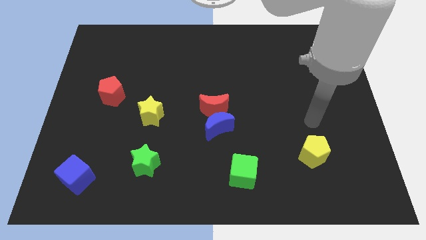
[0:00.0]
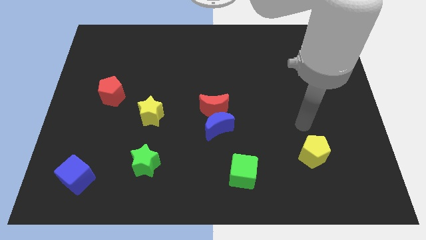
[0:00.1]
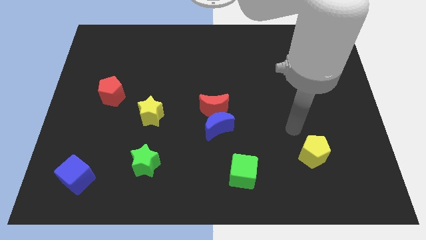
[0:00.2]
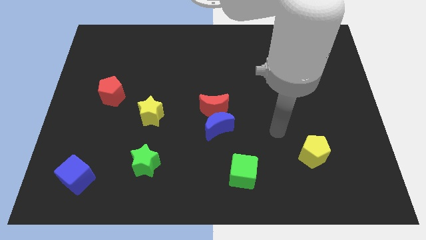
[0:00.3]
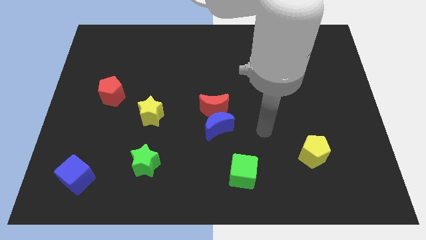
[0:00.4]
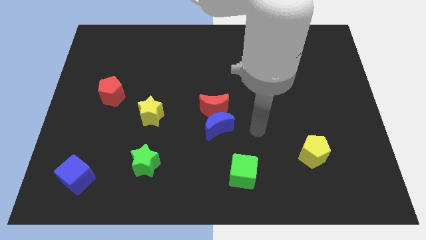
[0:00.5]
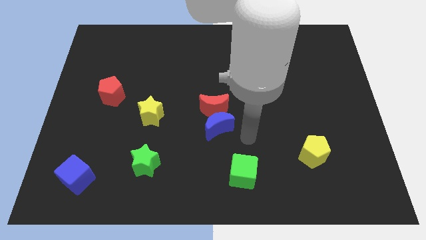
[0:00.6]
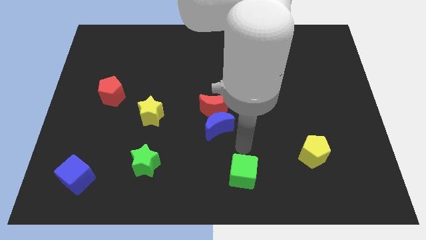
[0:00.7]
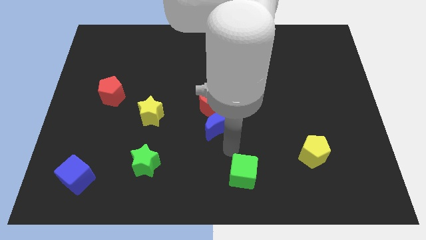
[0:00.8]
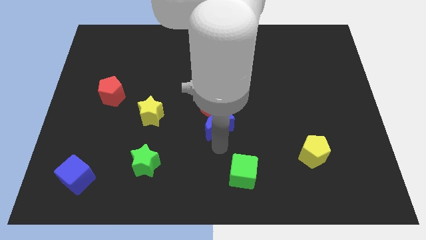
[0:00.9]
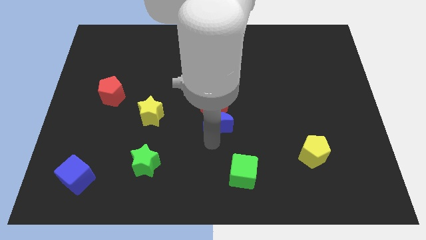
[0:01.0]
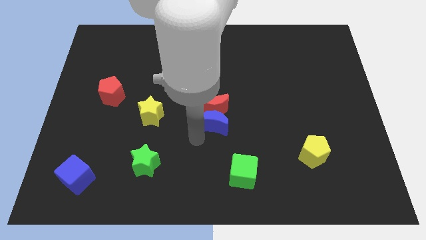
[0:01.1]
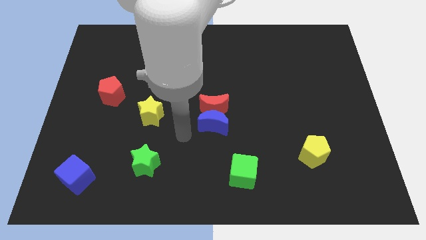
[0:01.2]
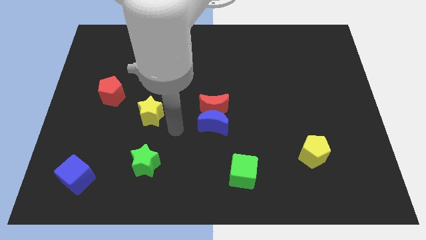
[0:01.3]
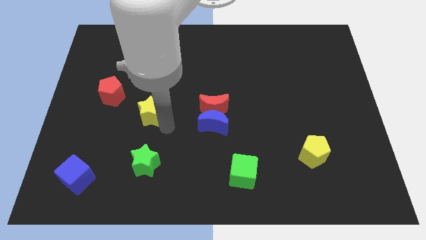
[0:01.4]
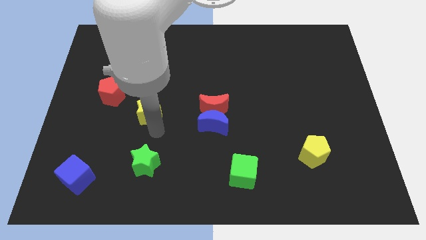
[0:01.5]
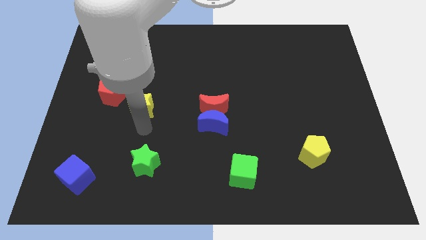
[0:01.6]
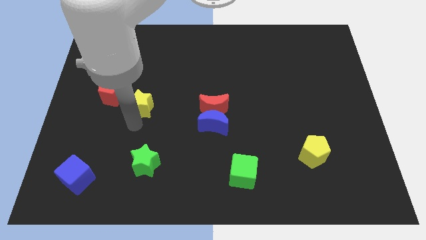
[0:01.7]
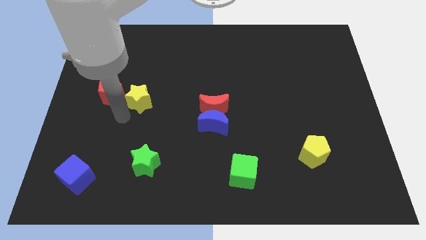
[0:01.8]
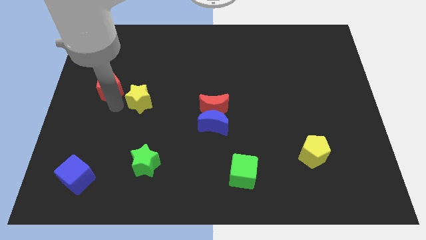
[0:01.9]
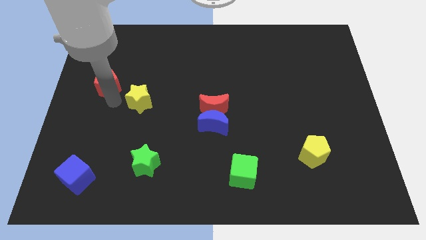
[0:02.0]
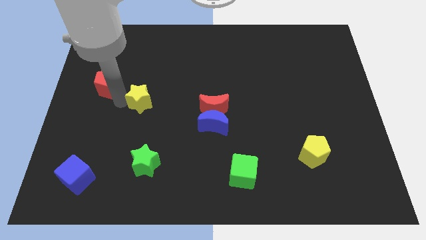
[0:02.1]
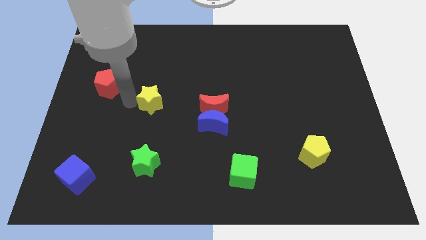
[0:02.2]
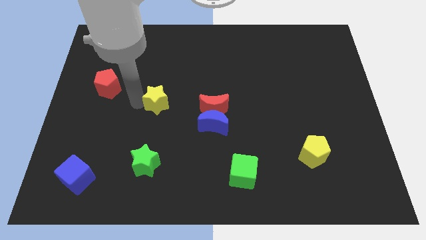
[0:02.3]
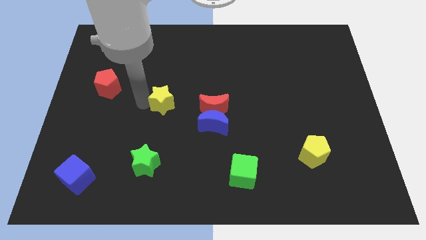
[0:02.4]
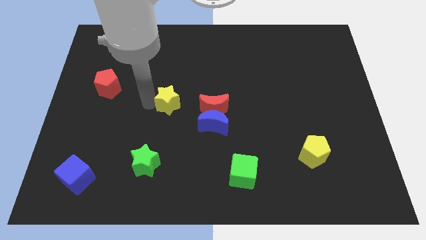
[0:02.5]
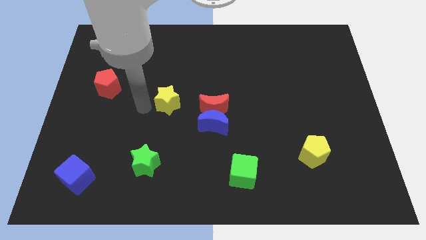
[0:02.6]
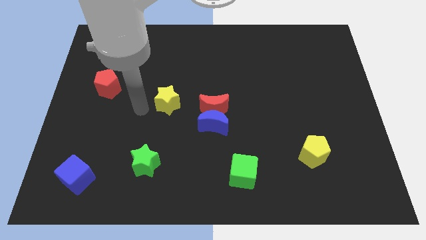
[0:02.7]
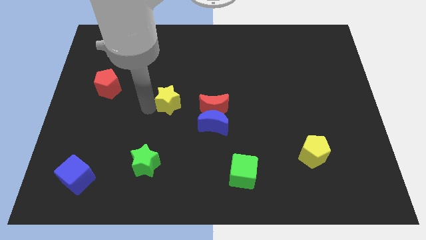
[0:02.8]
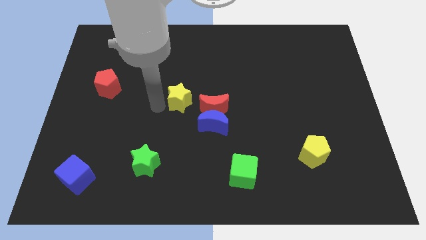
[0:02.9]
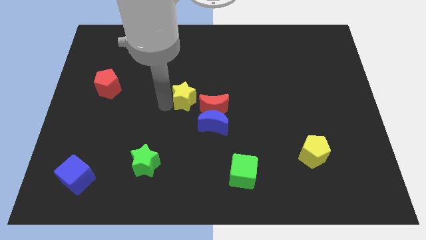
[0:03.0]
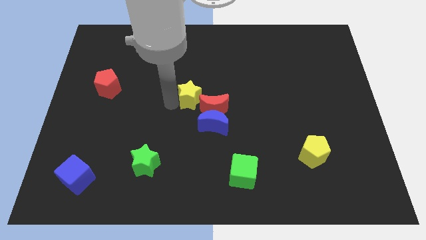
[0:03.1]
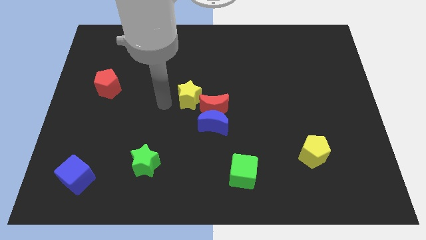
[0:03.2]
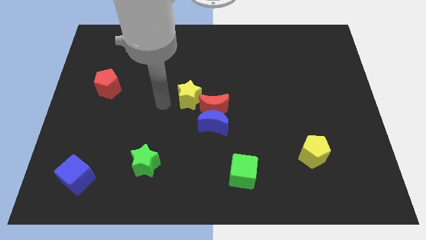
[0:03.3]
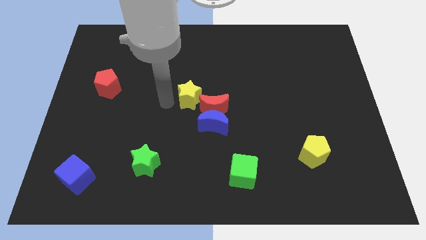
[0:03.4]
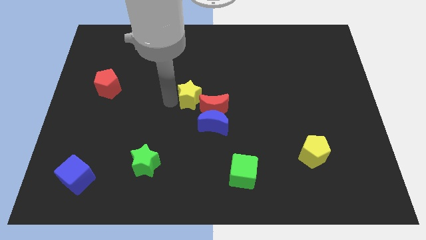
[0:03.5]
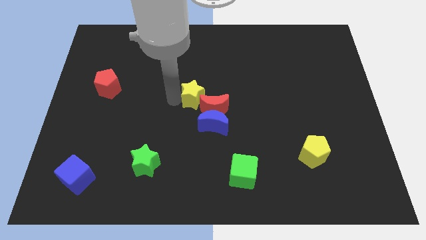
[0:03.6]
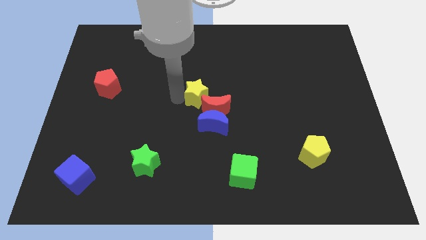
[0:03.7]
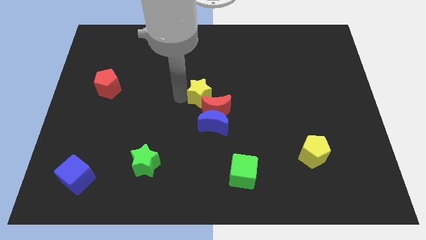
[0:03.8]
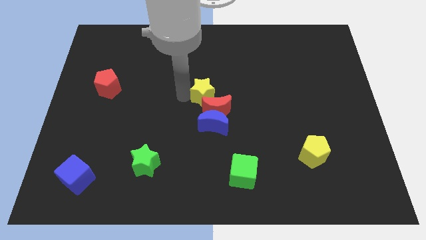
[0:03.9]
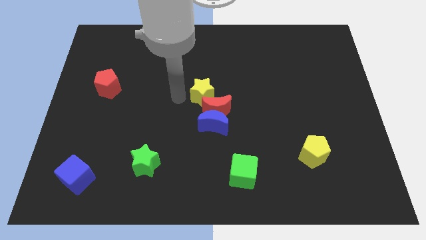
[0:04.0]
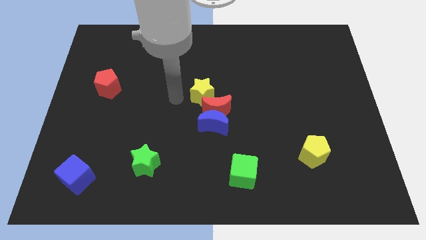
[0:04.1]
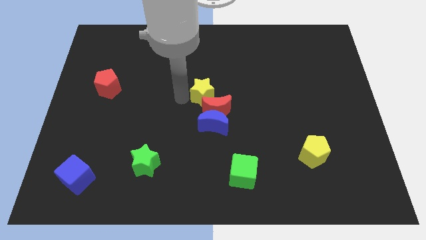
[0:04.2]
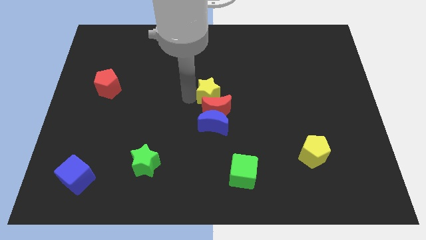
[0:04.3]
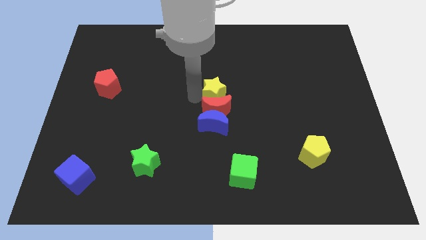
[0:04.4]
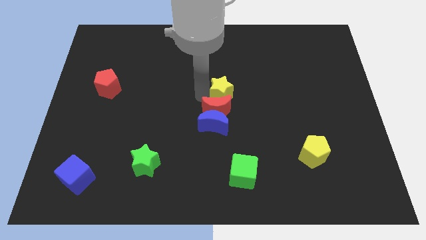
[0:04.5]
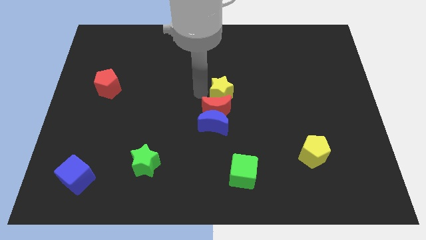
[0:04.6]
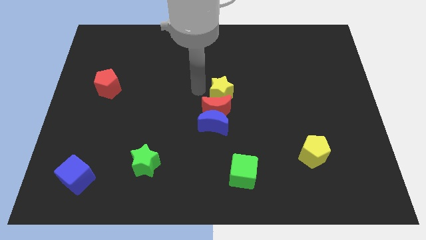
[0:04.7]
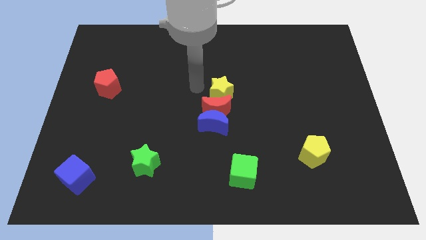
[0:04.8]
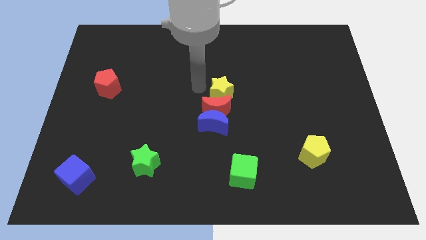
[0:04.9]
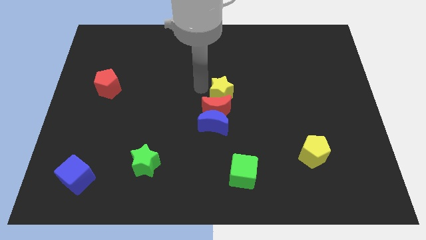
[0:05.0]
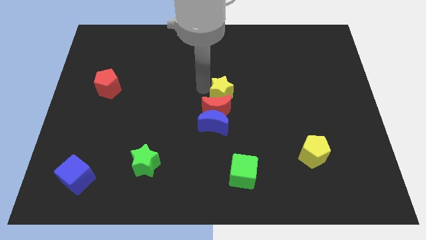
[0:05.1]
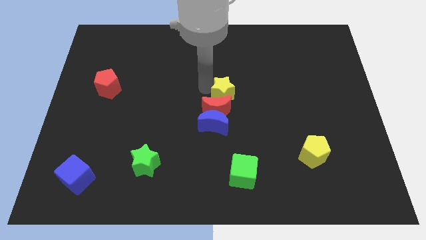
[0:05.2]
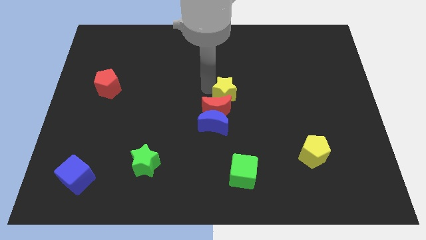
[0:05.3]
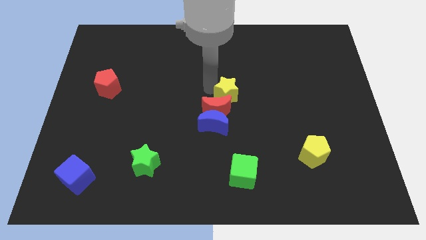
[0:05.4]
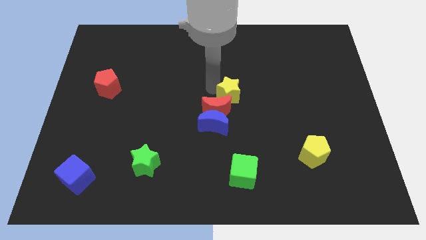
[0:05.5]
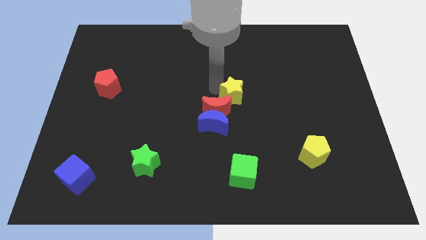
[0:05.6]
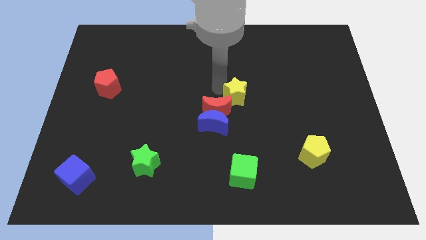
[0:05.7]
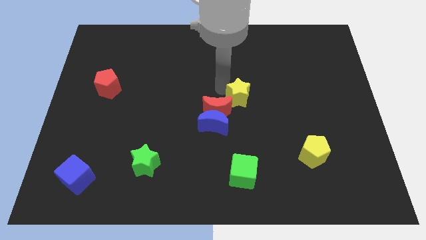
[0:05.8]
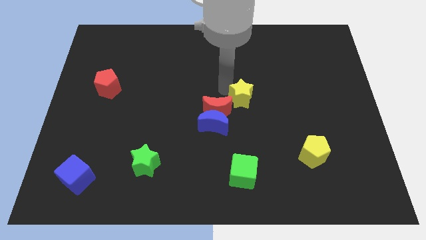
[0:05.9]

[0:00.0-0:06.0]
push the yellow star to the right

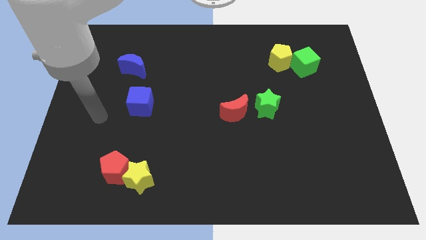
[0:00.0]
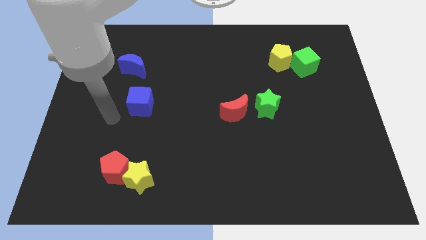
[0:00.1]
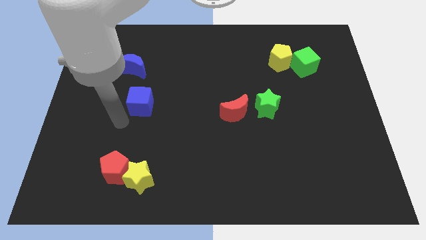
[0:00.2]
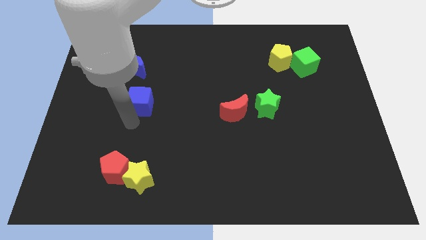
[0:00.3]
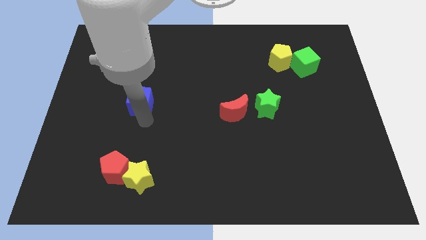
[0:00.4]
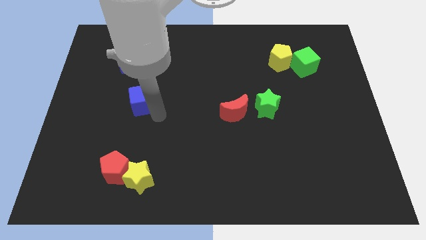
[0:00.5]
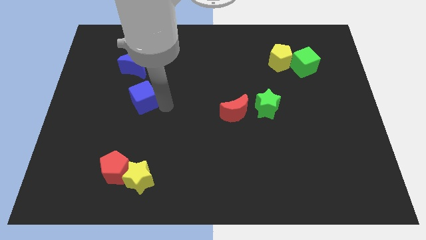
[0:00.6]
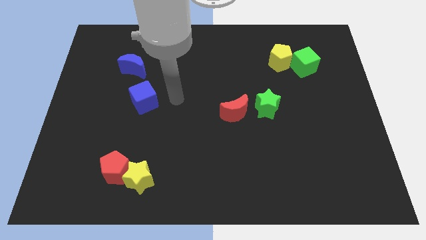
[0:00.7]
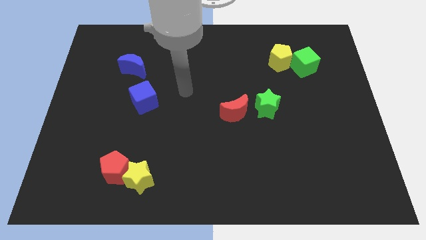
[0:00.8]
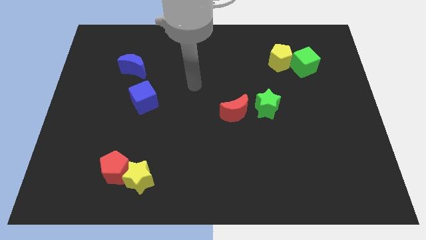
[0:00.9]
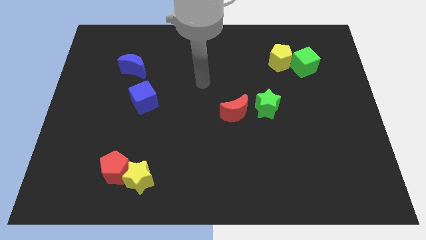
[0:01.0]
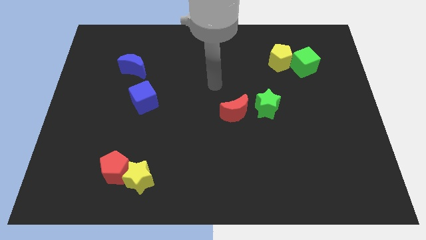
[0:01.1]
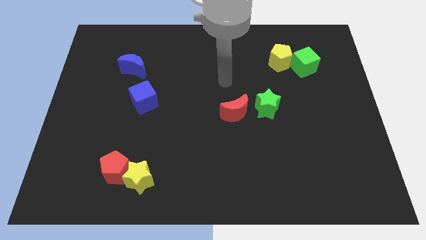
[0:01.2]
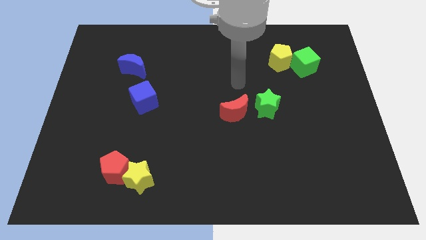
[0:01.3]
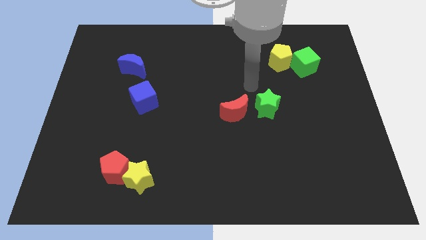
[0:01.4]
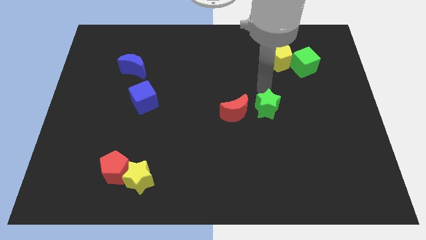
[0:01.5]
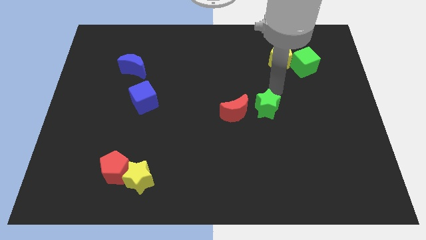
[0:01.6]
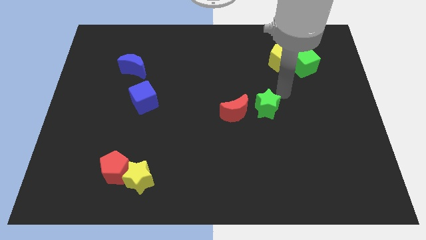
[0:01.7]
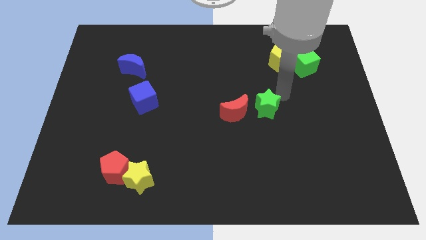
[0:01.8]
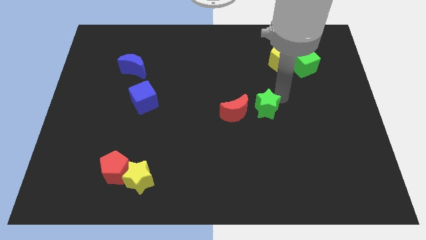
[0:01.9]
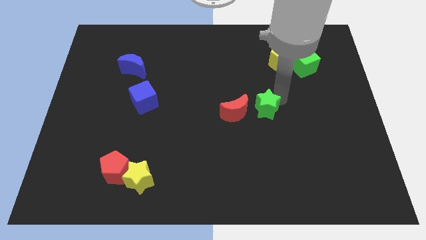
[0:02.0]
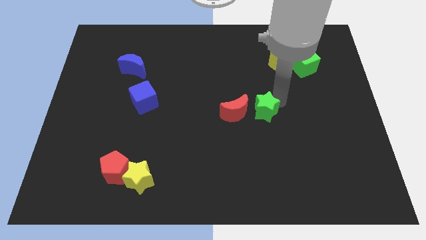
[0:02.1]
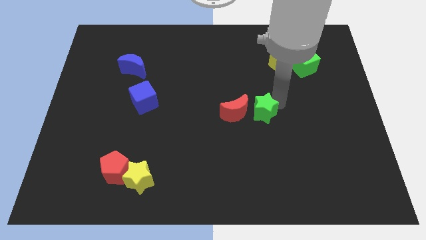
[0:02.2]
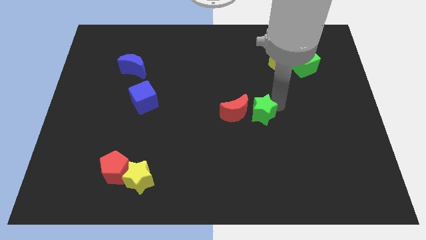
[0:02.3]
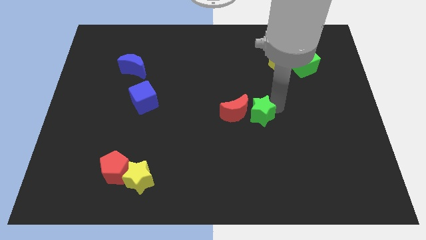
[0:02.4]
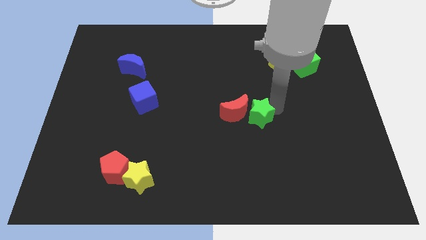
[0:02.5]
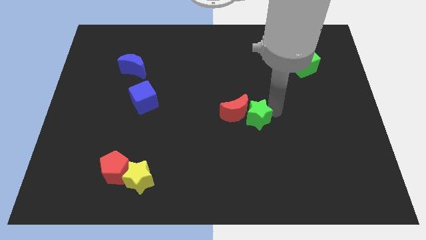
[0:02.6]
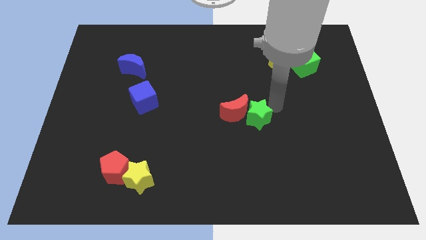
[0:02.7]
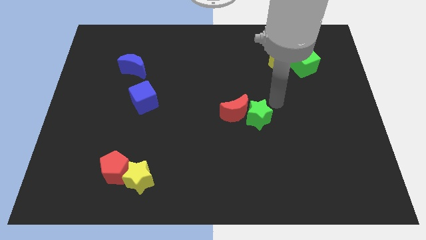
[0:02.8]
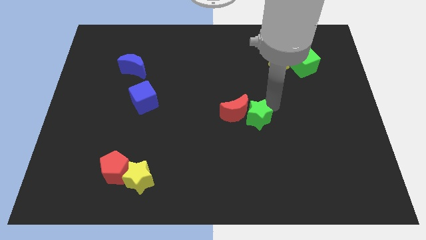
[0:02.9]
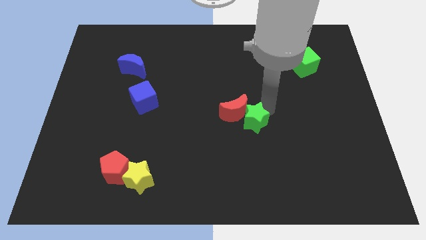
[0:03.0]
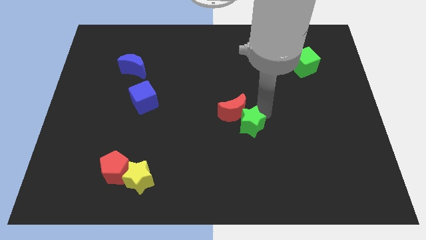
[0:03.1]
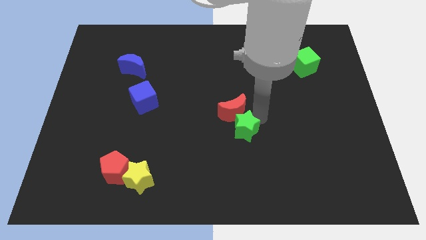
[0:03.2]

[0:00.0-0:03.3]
move the green star a bit downwards and to the left
